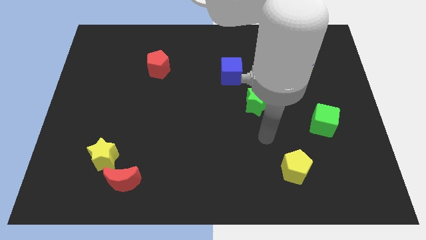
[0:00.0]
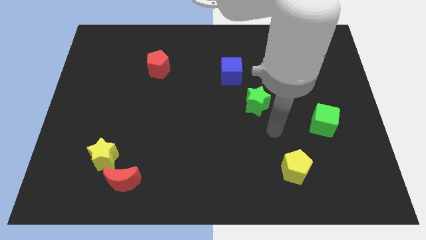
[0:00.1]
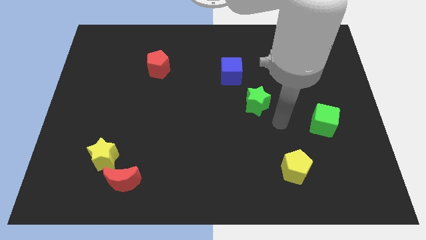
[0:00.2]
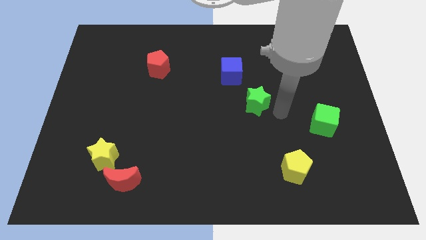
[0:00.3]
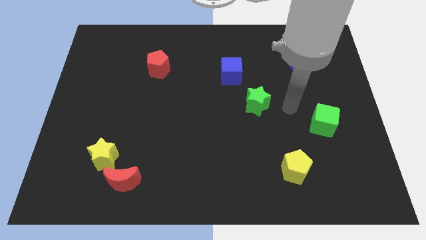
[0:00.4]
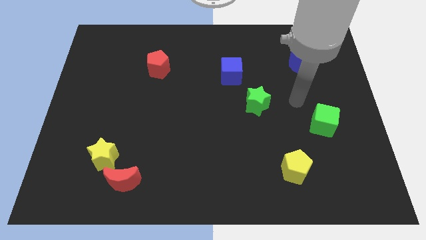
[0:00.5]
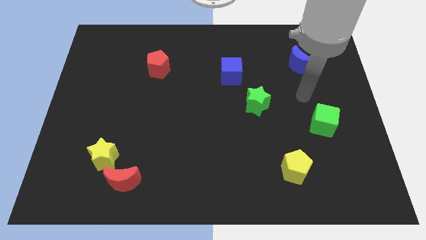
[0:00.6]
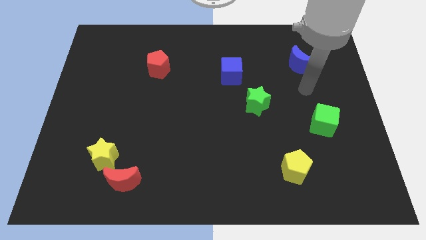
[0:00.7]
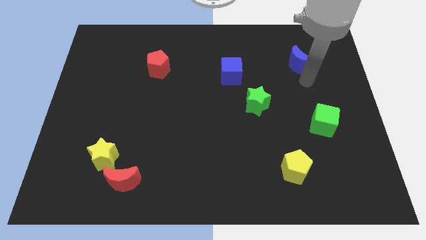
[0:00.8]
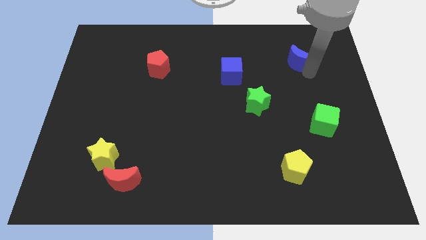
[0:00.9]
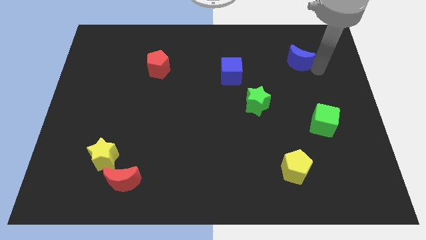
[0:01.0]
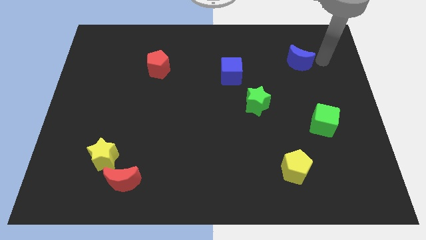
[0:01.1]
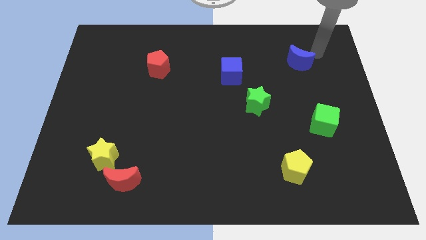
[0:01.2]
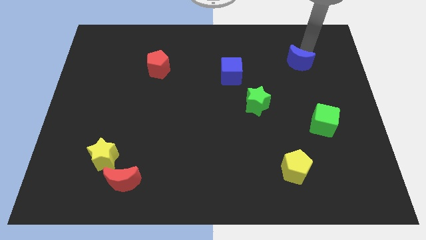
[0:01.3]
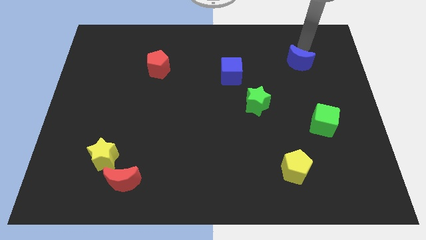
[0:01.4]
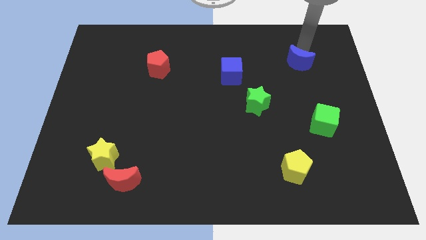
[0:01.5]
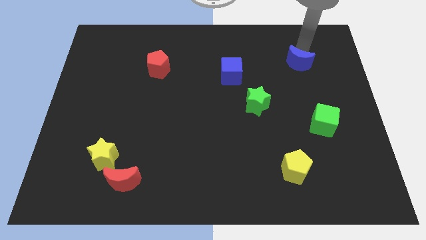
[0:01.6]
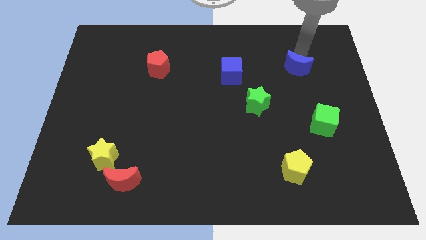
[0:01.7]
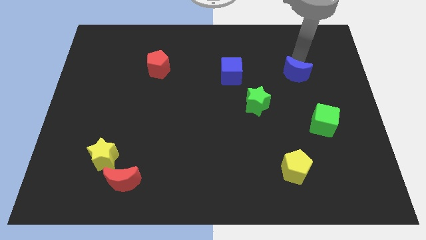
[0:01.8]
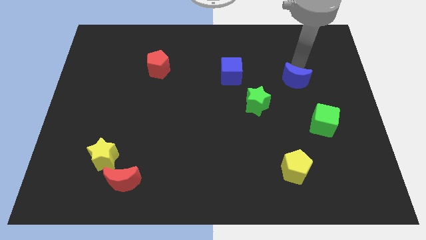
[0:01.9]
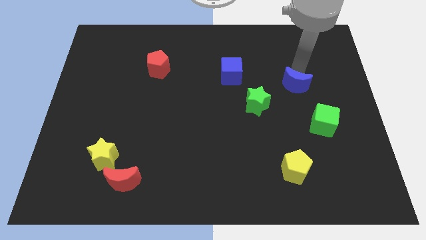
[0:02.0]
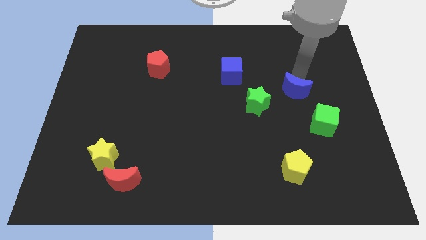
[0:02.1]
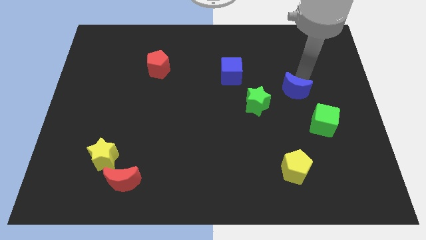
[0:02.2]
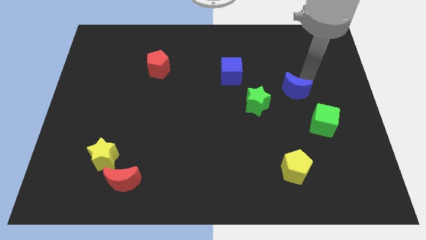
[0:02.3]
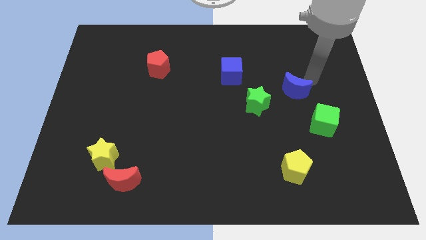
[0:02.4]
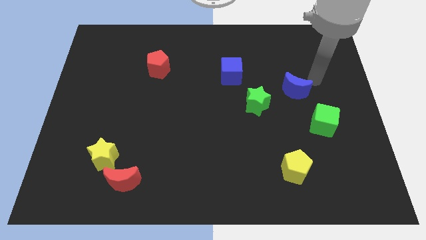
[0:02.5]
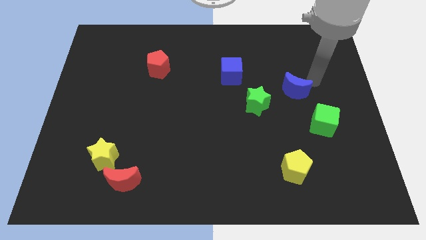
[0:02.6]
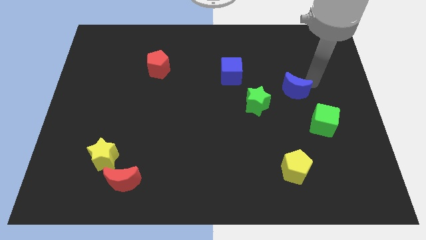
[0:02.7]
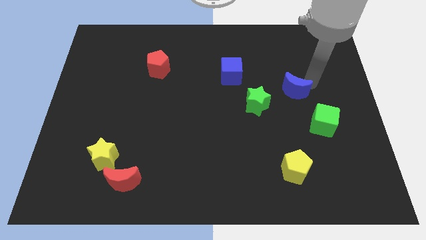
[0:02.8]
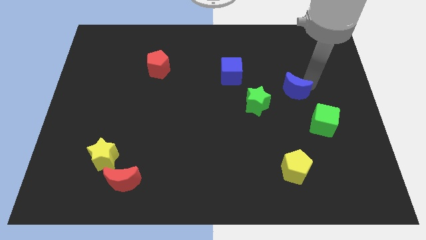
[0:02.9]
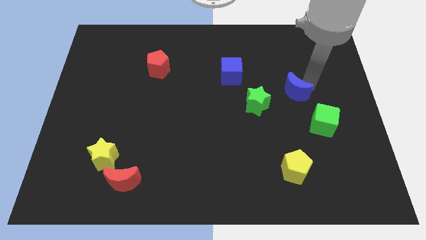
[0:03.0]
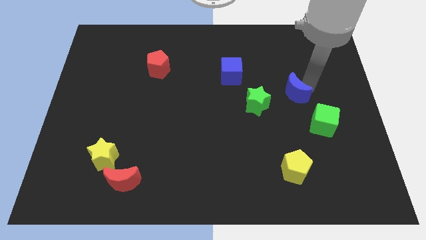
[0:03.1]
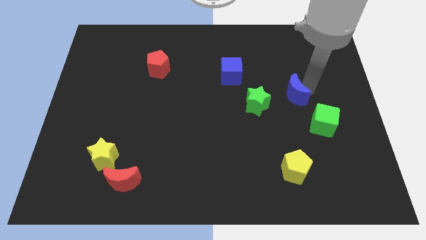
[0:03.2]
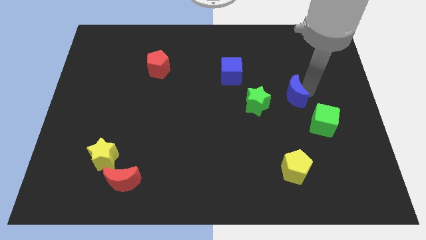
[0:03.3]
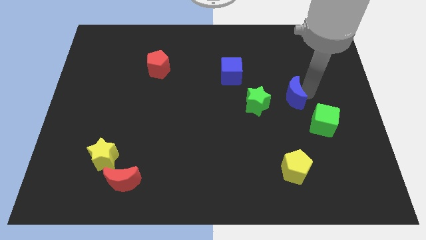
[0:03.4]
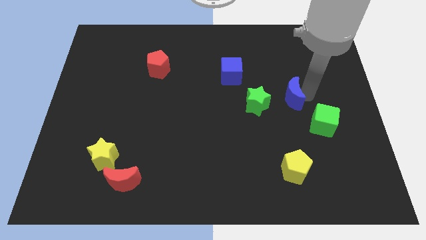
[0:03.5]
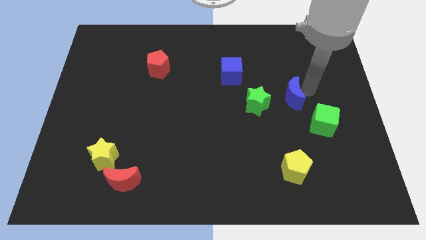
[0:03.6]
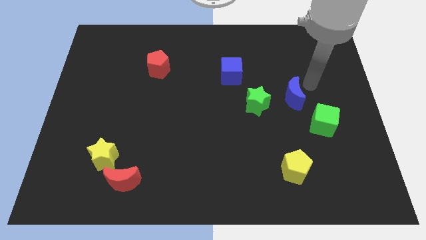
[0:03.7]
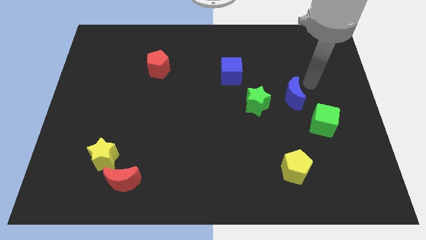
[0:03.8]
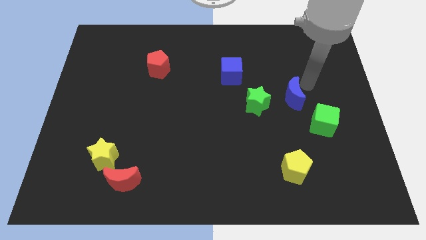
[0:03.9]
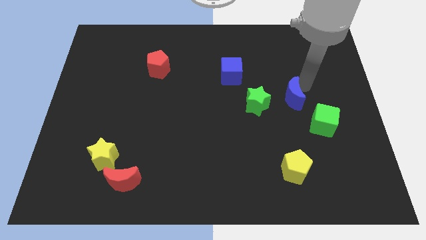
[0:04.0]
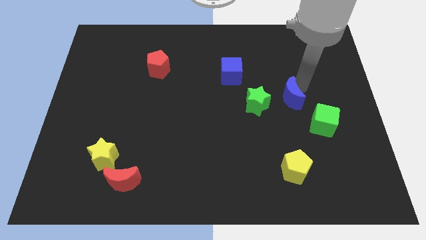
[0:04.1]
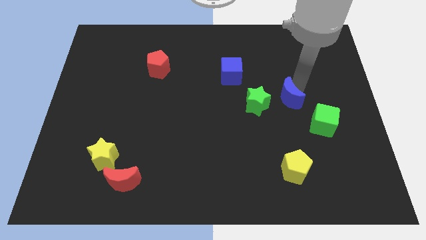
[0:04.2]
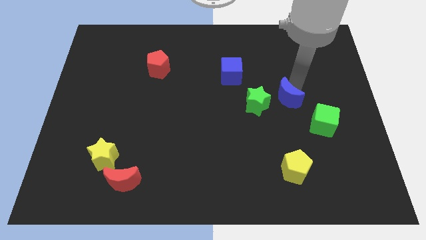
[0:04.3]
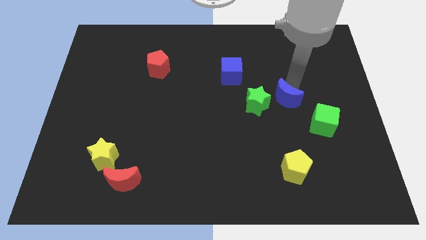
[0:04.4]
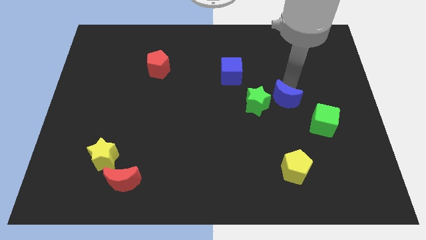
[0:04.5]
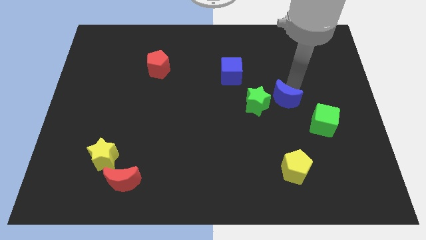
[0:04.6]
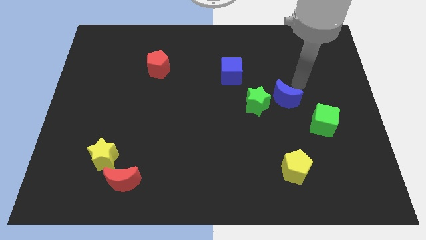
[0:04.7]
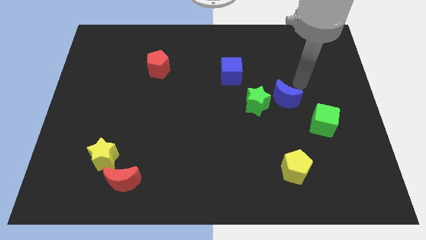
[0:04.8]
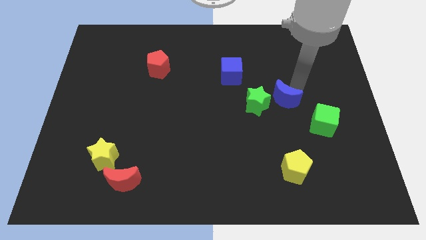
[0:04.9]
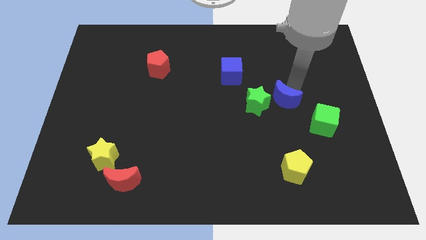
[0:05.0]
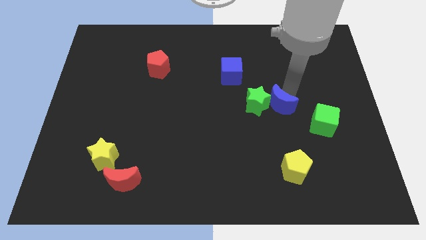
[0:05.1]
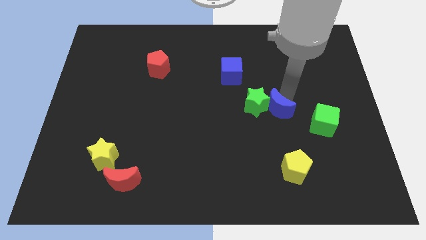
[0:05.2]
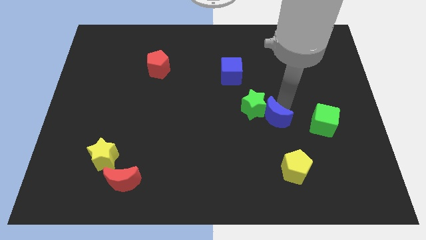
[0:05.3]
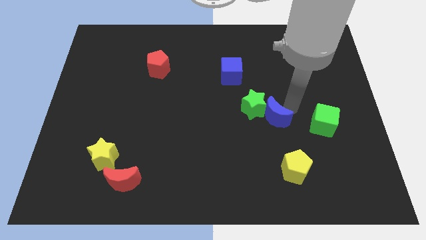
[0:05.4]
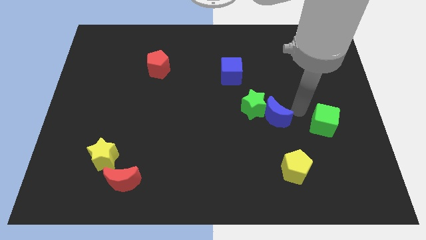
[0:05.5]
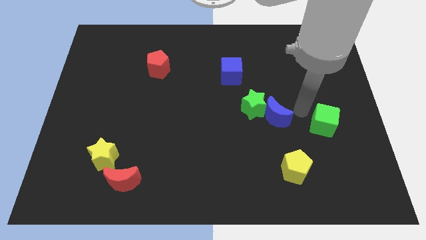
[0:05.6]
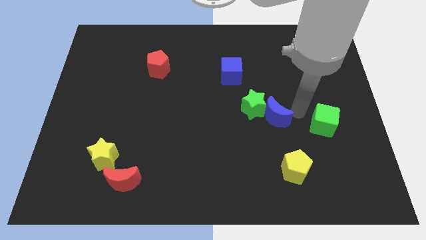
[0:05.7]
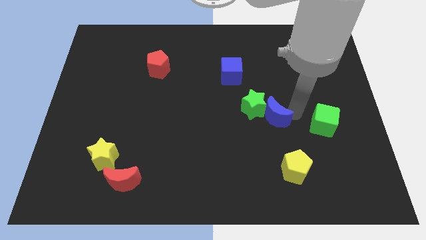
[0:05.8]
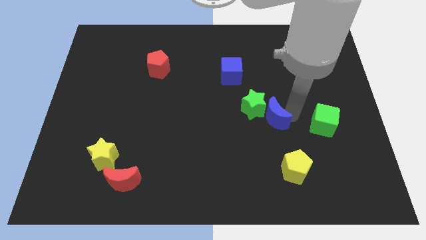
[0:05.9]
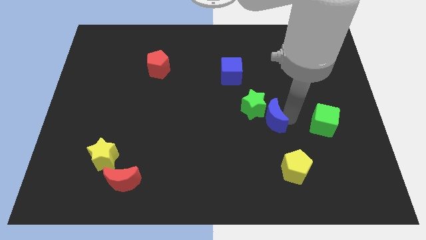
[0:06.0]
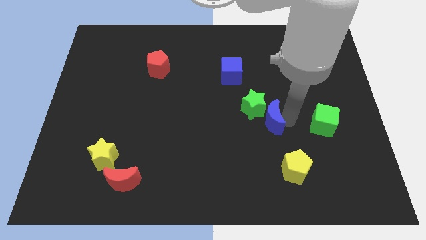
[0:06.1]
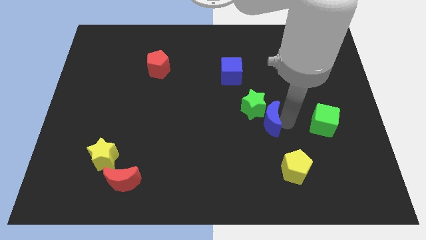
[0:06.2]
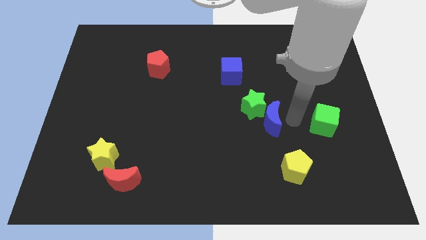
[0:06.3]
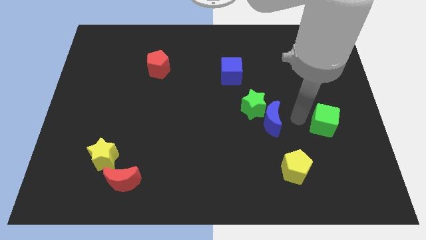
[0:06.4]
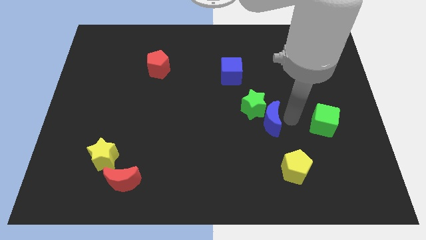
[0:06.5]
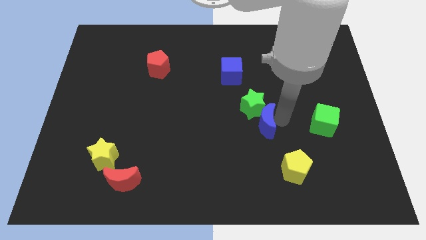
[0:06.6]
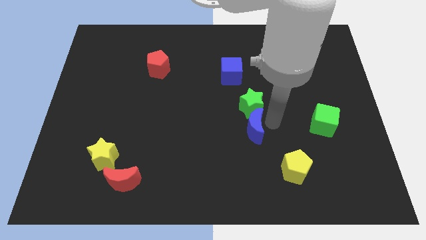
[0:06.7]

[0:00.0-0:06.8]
slide the blue moon to the bottom left of the green star
